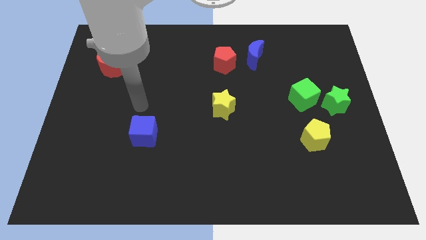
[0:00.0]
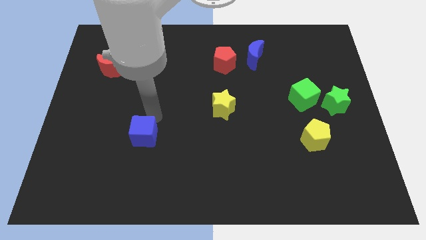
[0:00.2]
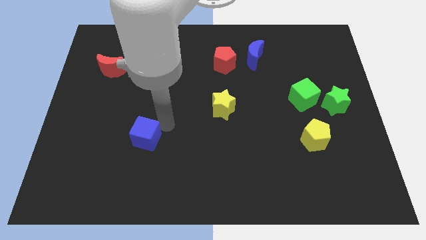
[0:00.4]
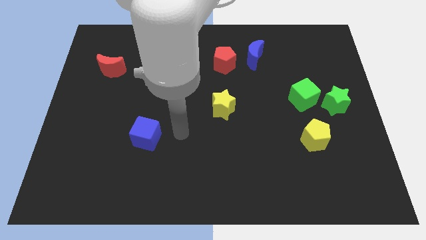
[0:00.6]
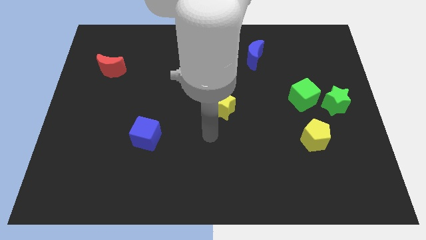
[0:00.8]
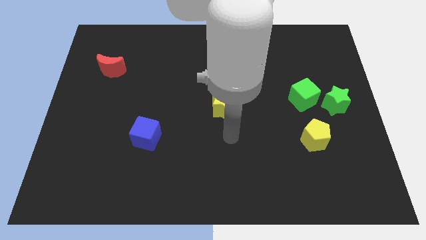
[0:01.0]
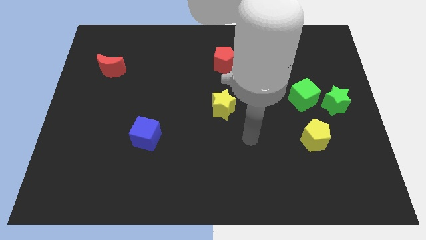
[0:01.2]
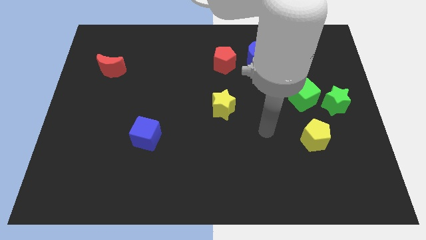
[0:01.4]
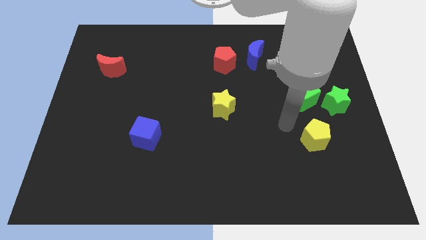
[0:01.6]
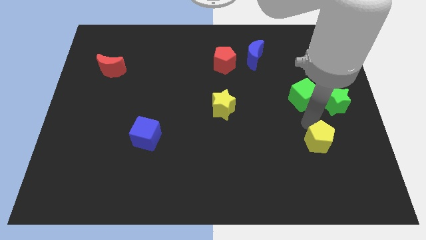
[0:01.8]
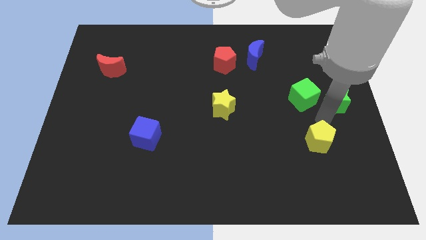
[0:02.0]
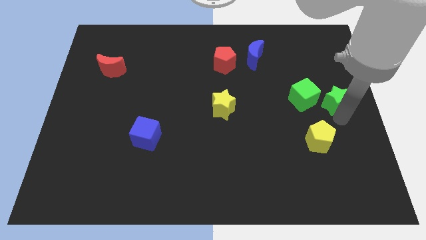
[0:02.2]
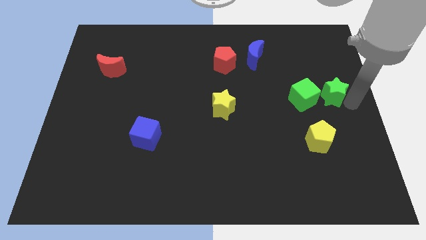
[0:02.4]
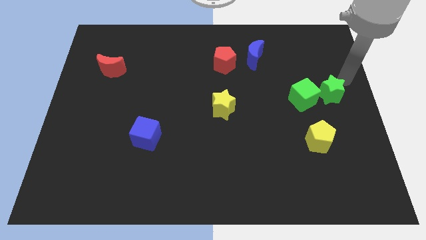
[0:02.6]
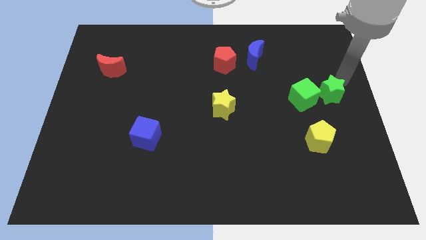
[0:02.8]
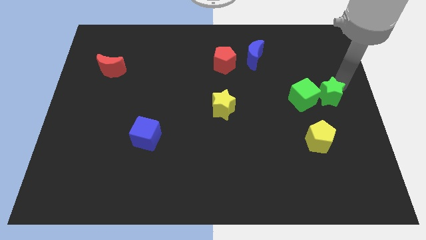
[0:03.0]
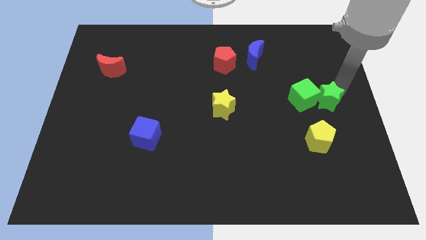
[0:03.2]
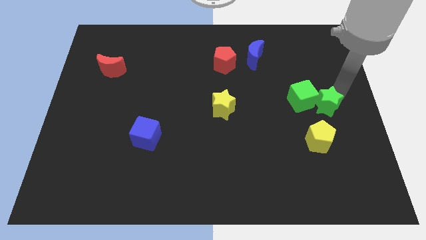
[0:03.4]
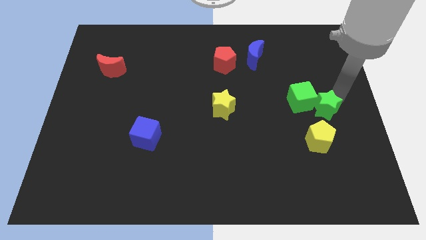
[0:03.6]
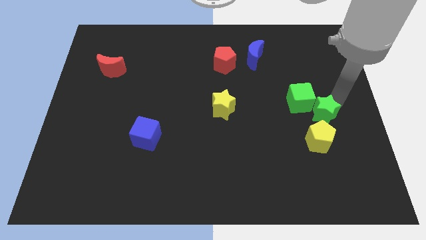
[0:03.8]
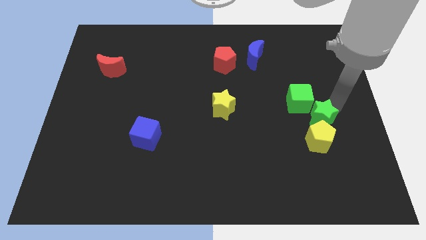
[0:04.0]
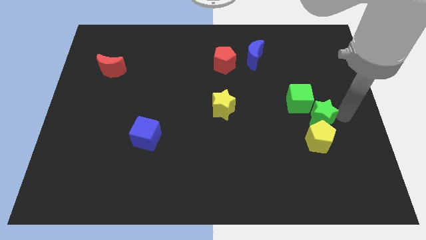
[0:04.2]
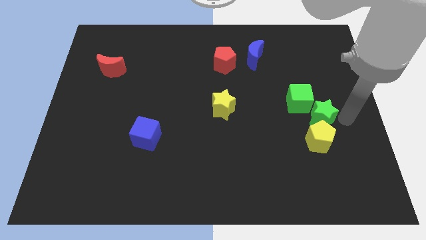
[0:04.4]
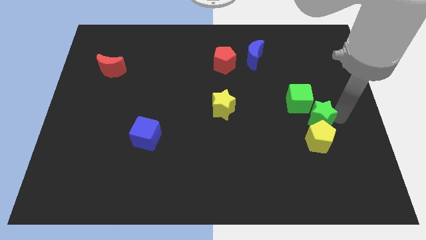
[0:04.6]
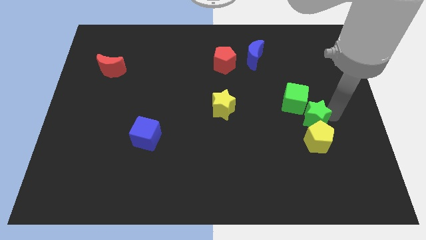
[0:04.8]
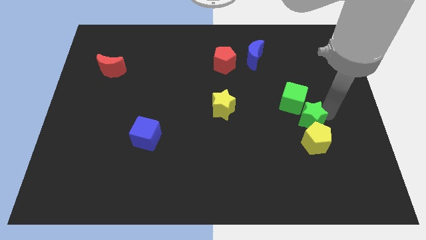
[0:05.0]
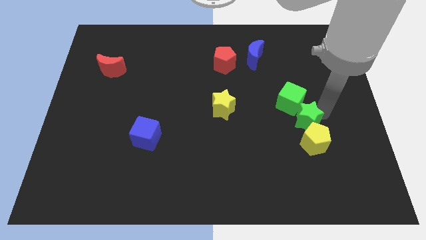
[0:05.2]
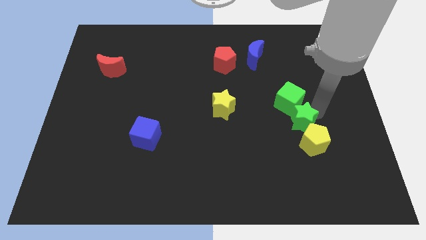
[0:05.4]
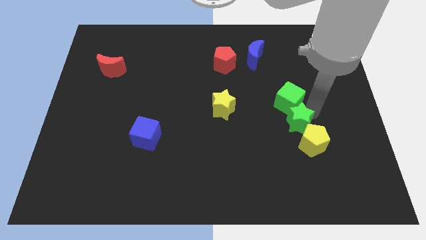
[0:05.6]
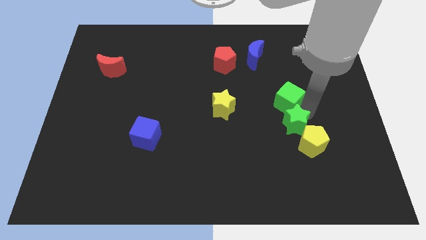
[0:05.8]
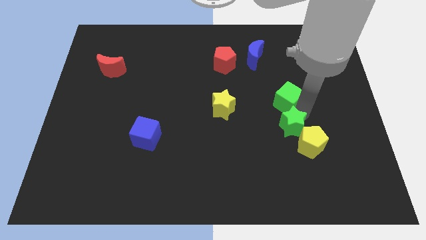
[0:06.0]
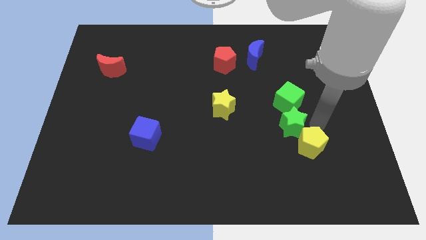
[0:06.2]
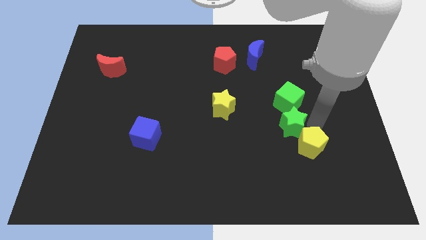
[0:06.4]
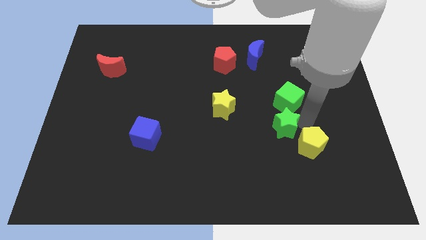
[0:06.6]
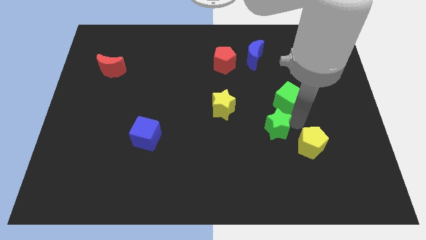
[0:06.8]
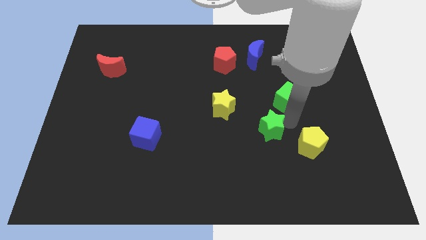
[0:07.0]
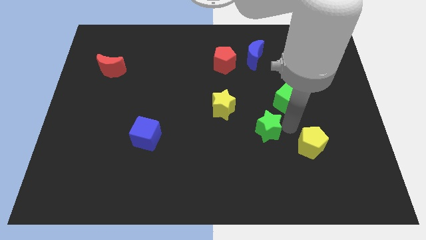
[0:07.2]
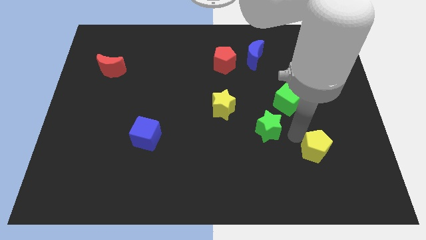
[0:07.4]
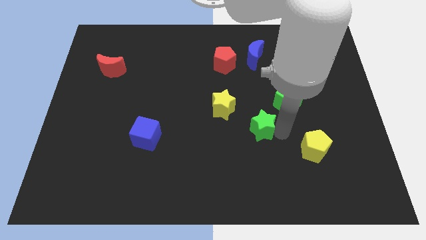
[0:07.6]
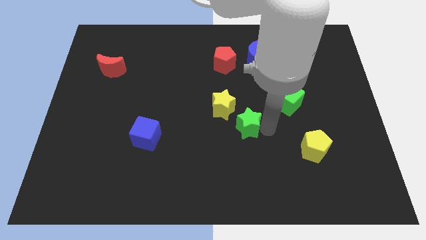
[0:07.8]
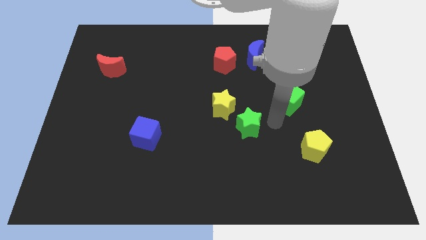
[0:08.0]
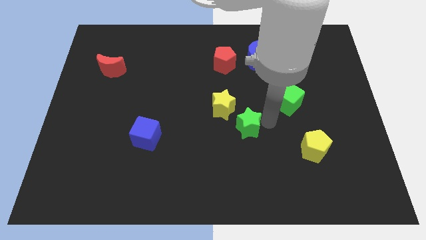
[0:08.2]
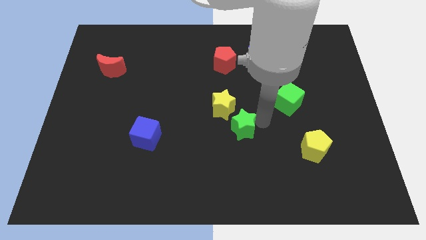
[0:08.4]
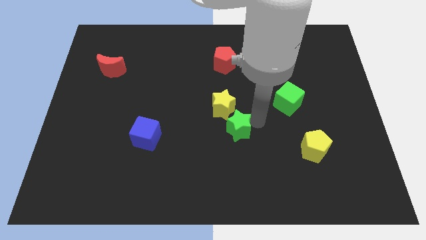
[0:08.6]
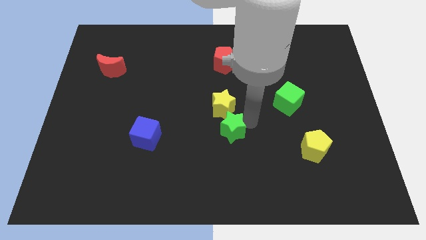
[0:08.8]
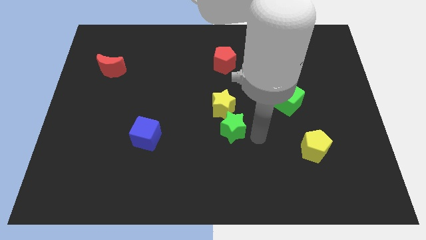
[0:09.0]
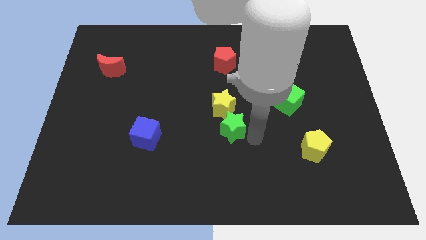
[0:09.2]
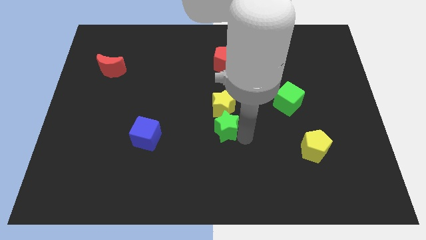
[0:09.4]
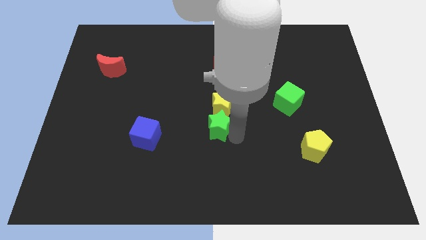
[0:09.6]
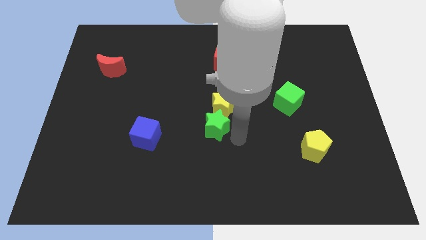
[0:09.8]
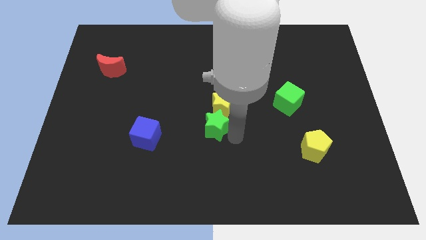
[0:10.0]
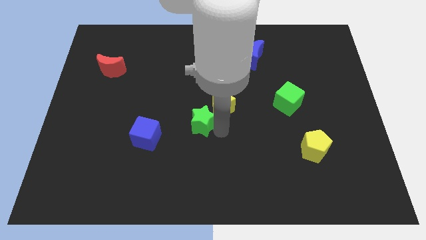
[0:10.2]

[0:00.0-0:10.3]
slide the green star left of the yellow star

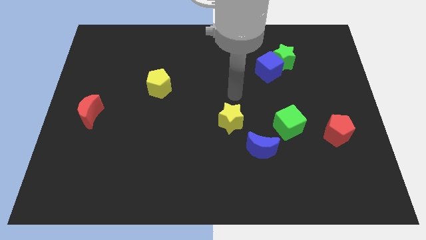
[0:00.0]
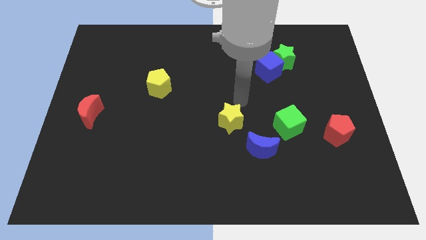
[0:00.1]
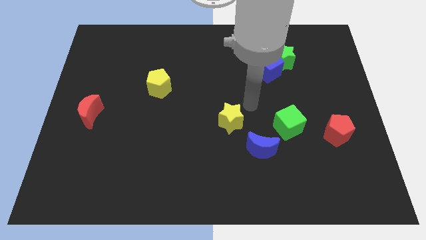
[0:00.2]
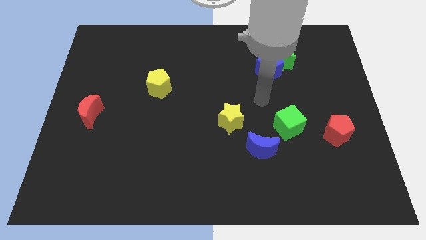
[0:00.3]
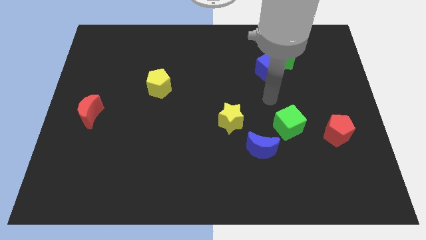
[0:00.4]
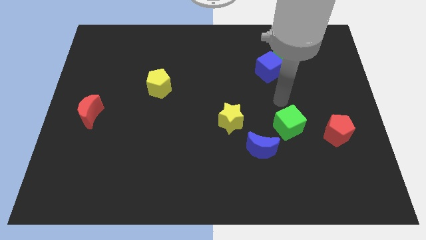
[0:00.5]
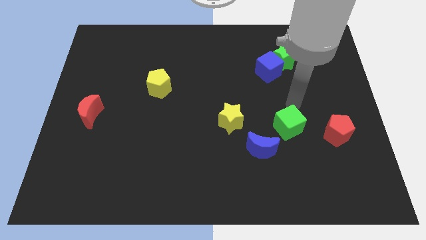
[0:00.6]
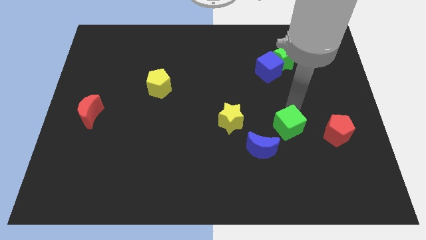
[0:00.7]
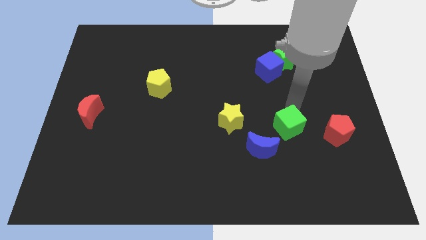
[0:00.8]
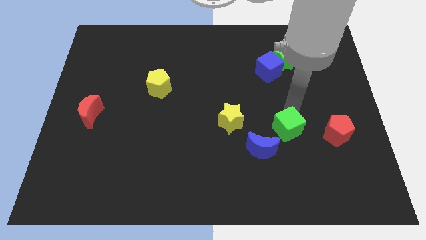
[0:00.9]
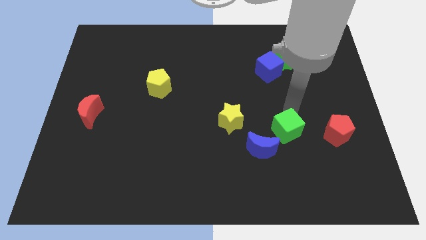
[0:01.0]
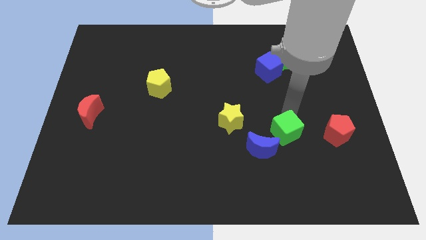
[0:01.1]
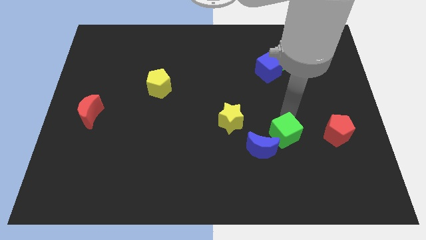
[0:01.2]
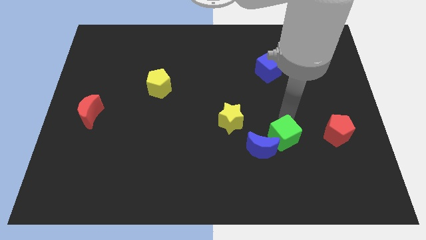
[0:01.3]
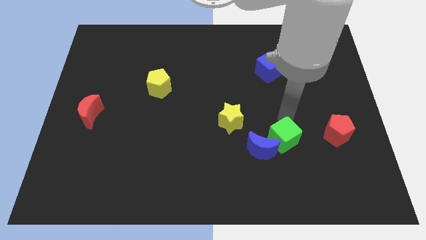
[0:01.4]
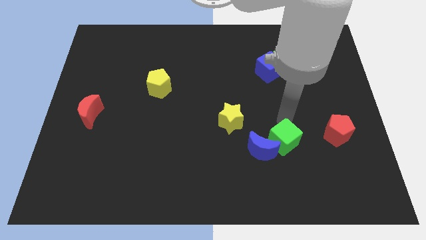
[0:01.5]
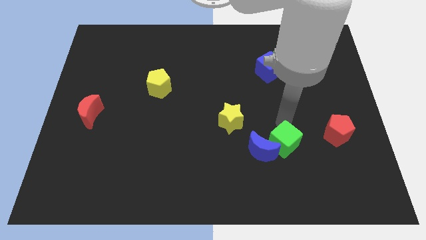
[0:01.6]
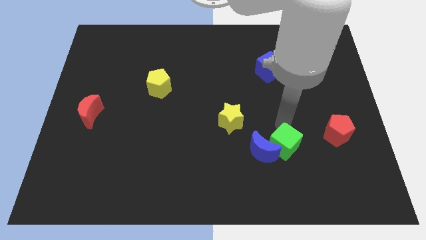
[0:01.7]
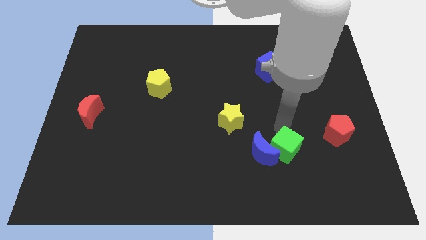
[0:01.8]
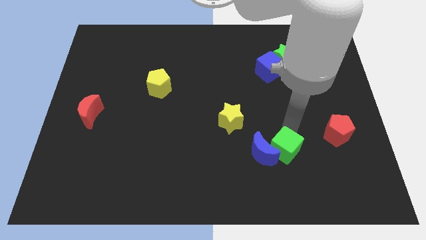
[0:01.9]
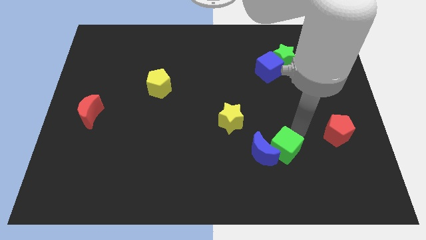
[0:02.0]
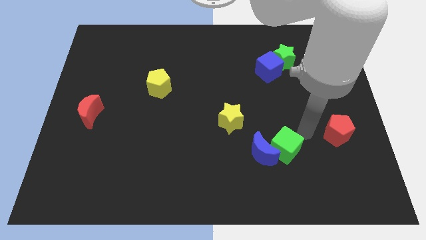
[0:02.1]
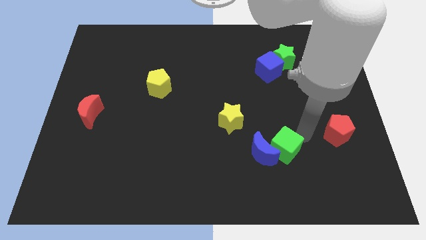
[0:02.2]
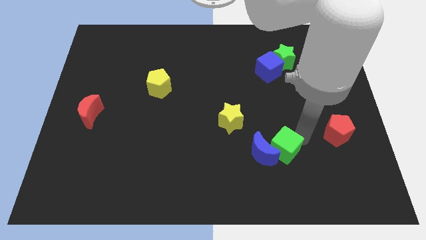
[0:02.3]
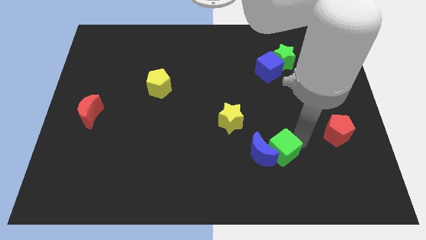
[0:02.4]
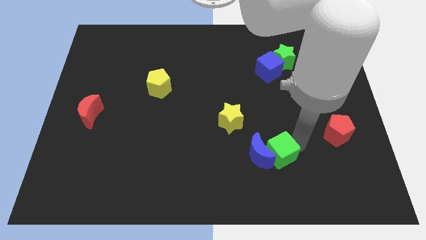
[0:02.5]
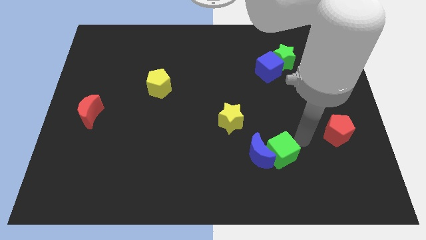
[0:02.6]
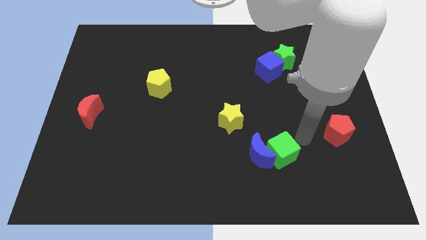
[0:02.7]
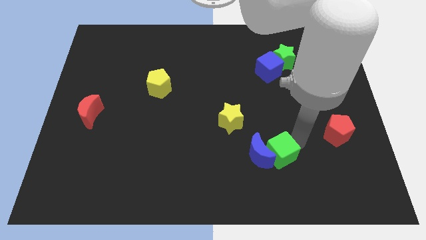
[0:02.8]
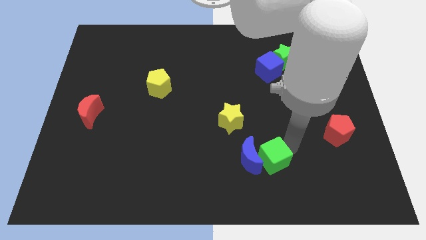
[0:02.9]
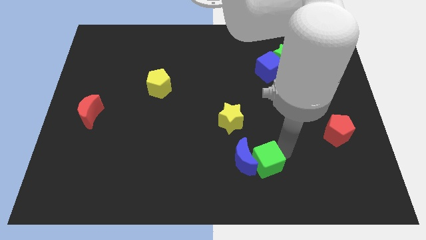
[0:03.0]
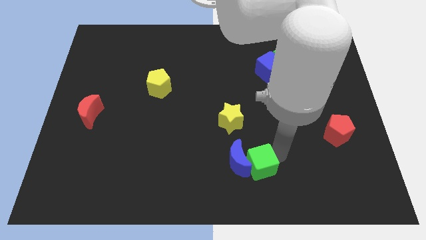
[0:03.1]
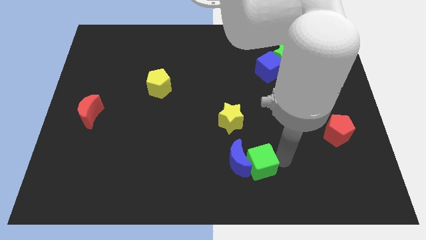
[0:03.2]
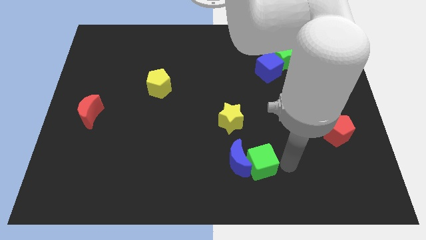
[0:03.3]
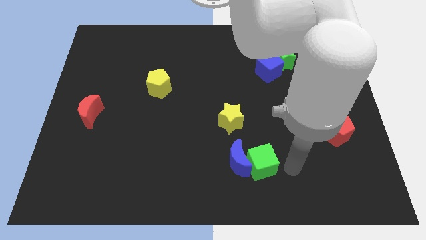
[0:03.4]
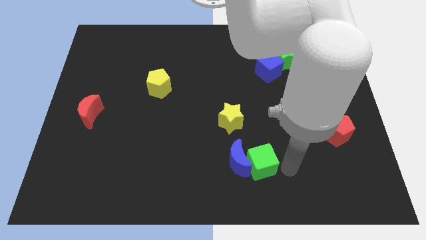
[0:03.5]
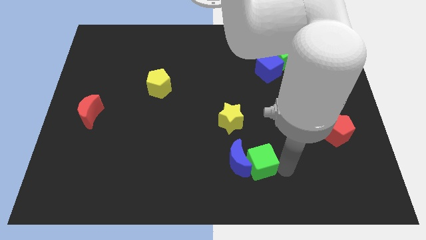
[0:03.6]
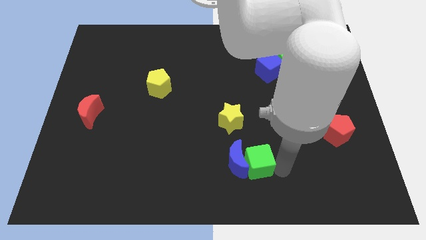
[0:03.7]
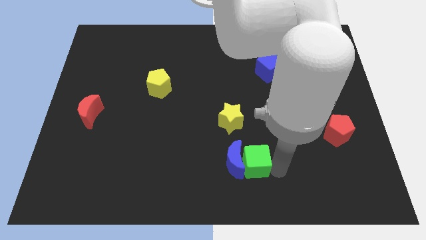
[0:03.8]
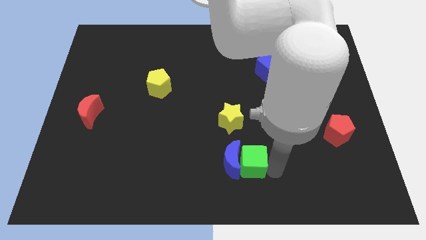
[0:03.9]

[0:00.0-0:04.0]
put the green cube to the bottom of the yellow star
